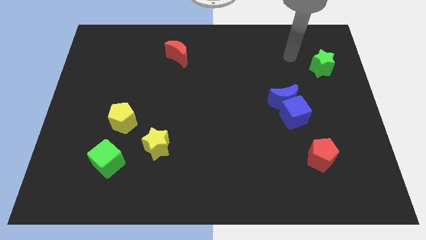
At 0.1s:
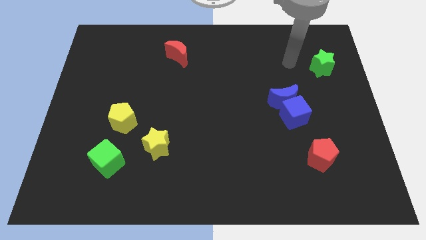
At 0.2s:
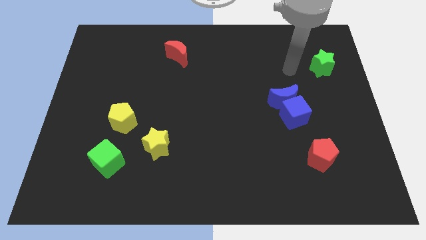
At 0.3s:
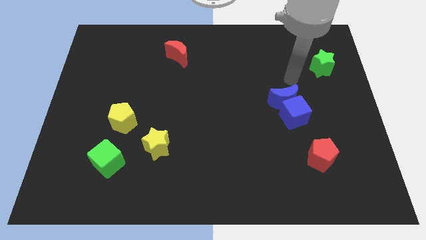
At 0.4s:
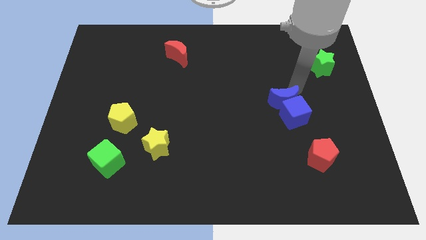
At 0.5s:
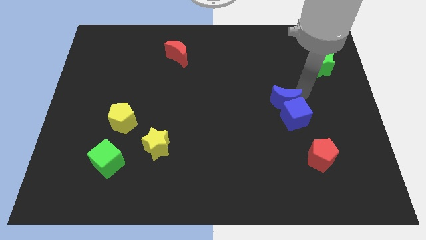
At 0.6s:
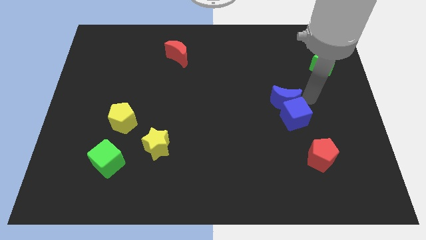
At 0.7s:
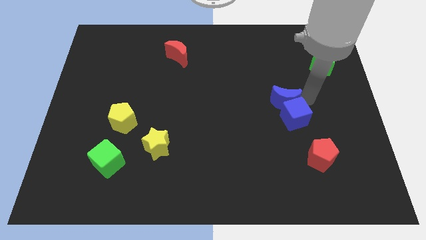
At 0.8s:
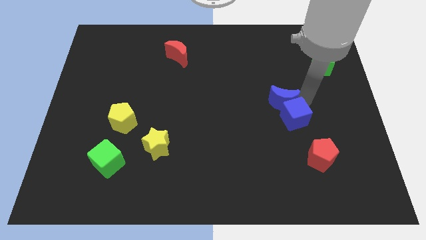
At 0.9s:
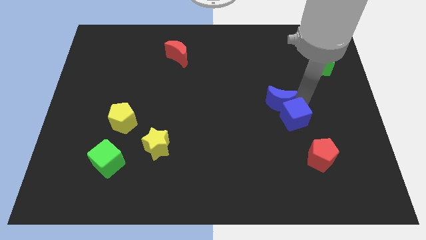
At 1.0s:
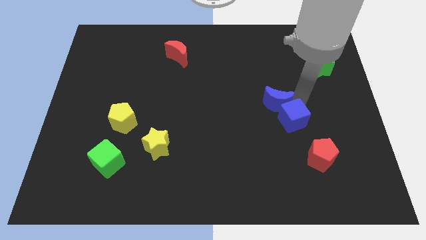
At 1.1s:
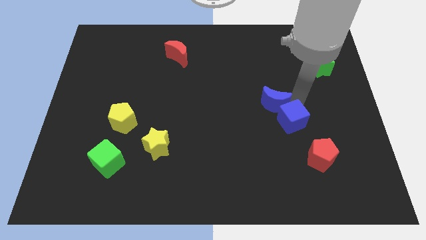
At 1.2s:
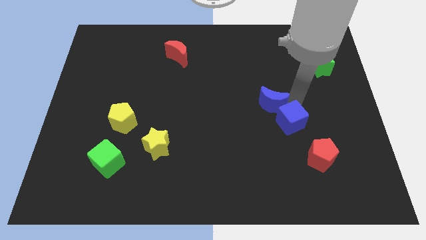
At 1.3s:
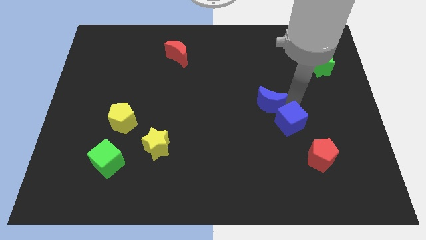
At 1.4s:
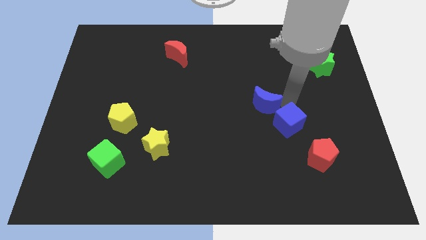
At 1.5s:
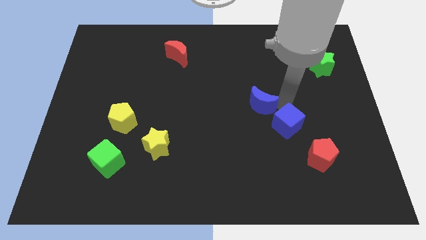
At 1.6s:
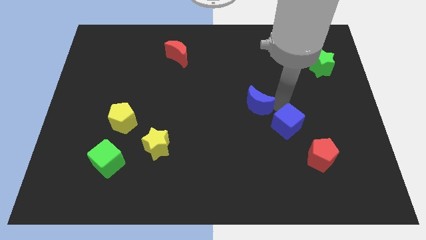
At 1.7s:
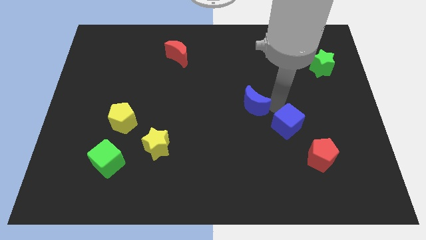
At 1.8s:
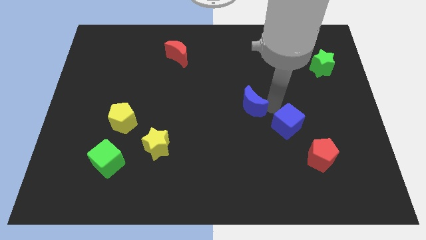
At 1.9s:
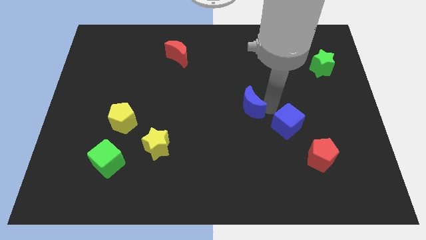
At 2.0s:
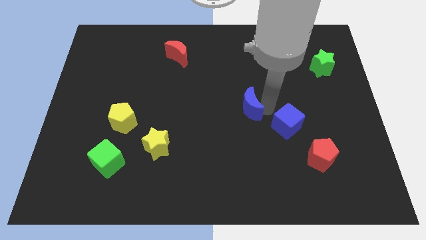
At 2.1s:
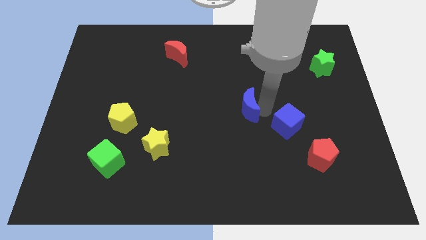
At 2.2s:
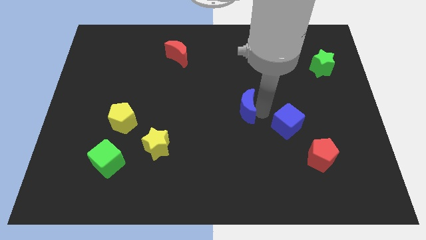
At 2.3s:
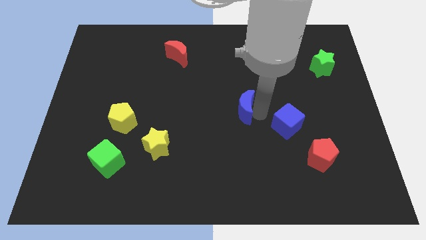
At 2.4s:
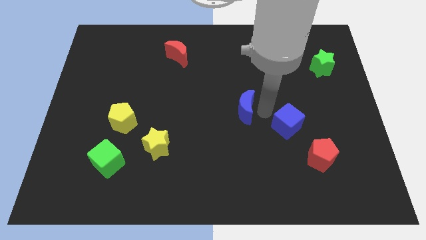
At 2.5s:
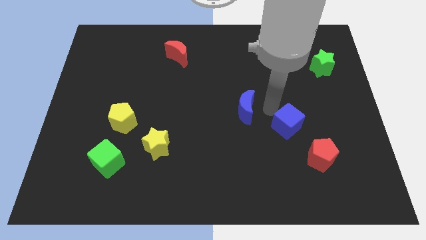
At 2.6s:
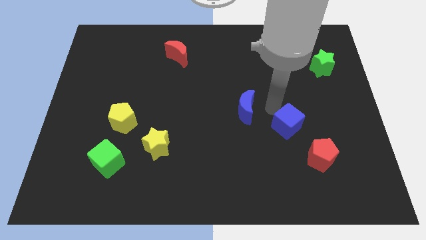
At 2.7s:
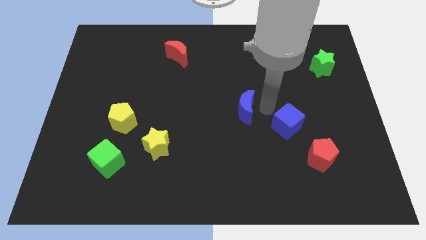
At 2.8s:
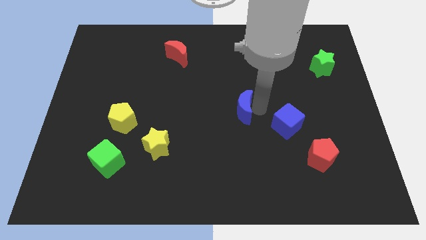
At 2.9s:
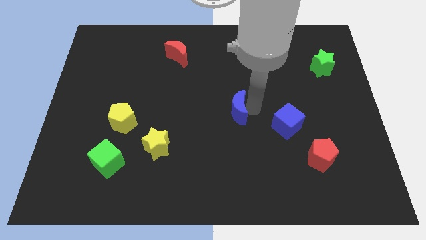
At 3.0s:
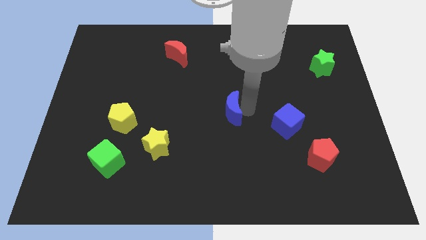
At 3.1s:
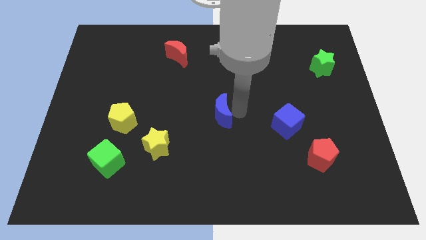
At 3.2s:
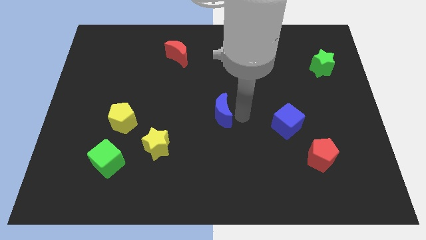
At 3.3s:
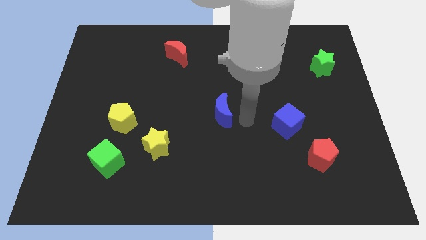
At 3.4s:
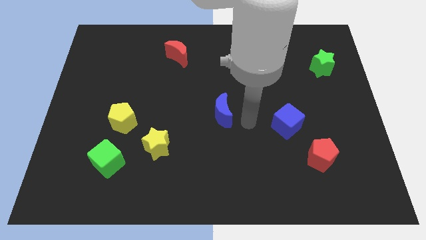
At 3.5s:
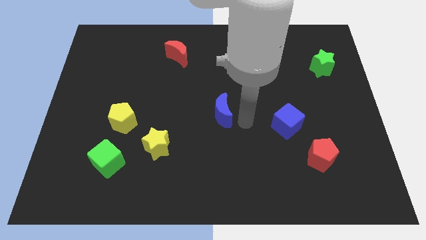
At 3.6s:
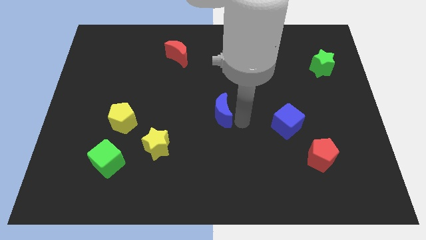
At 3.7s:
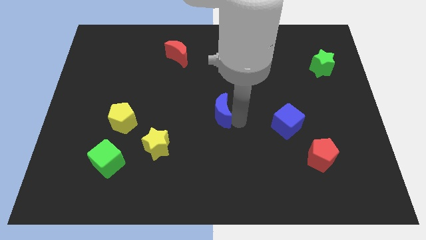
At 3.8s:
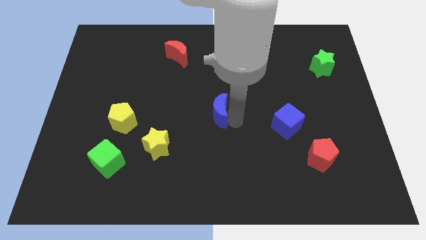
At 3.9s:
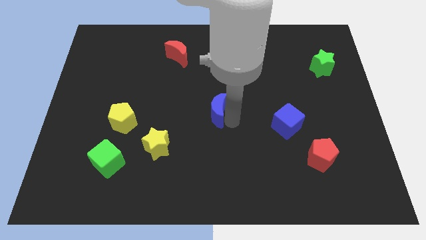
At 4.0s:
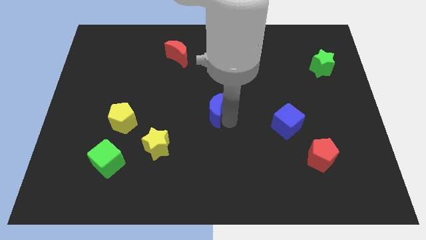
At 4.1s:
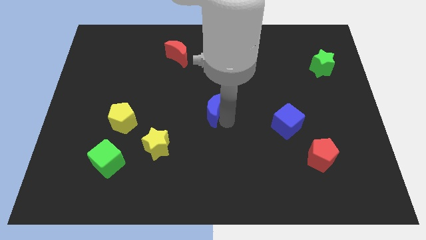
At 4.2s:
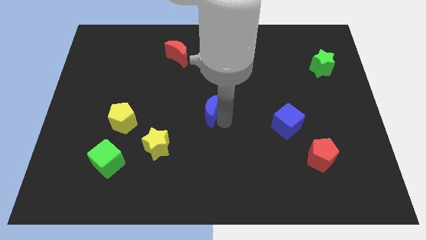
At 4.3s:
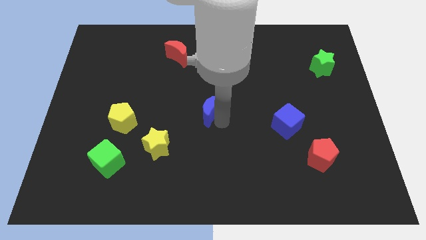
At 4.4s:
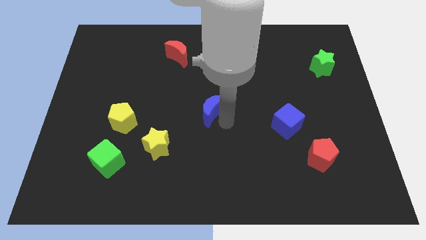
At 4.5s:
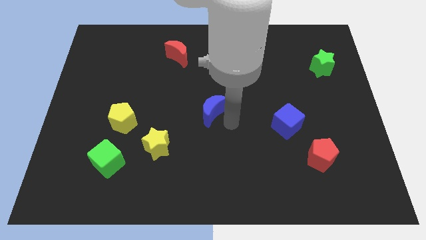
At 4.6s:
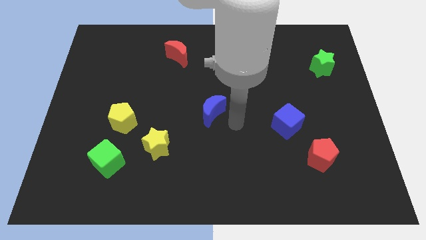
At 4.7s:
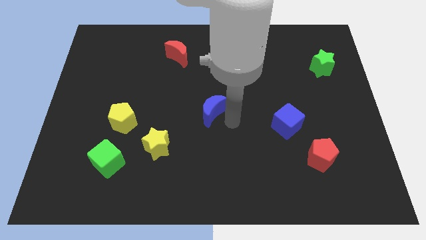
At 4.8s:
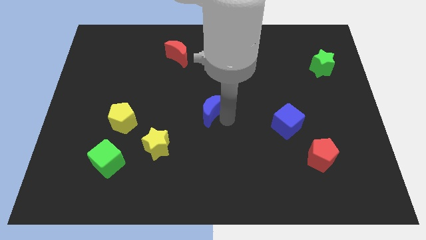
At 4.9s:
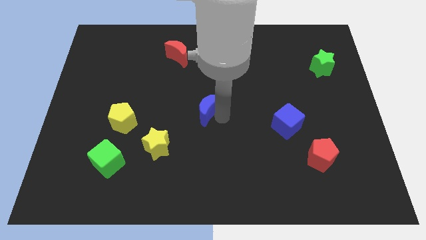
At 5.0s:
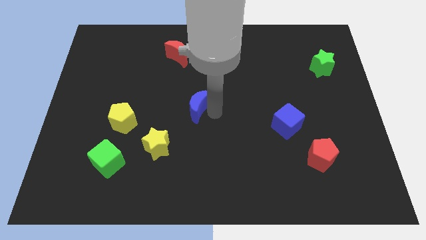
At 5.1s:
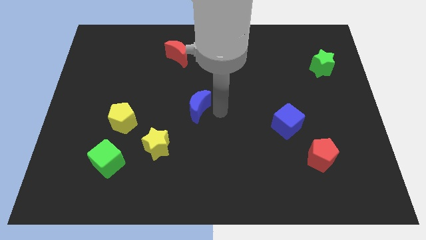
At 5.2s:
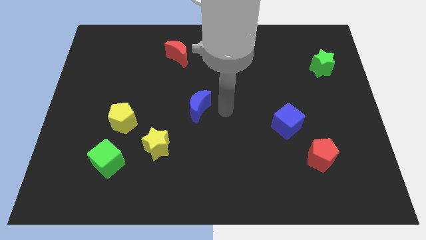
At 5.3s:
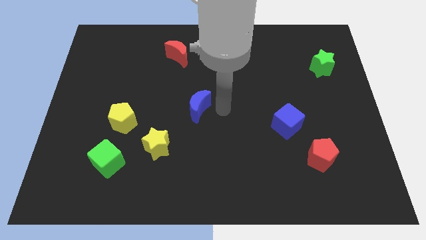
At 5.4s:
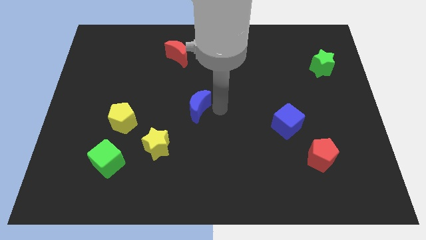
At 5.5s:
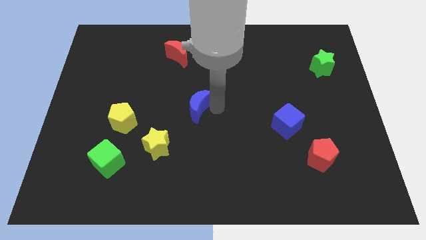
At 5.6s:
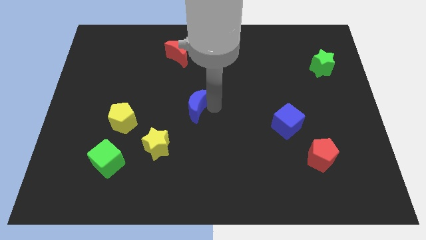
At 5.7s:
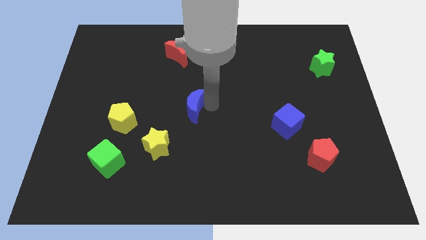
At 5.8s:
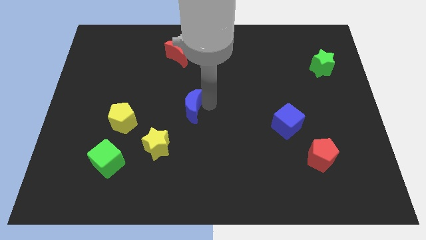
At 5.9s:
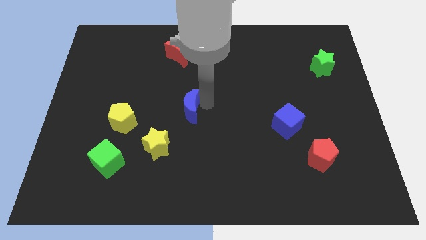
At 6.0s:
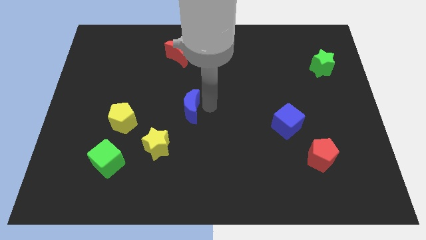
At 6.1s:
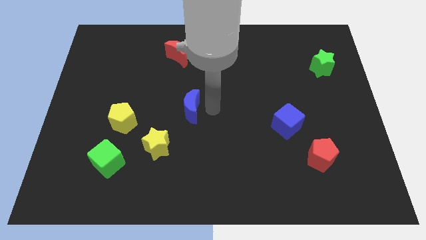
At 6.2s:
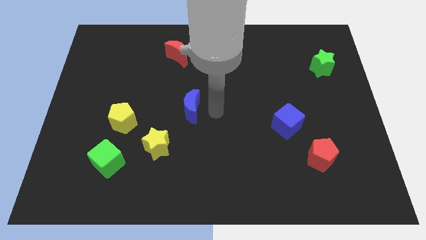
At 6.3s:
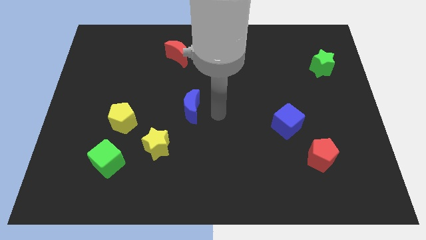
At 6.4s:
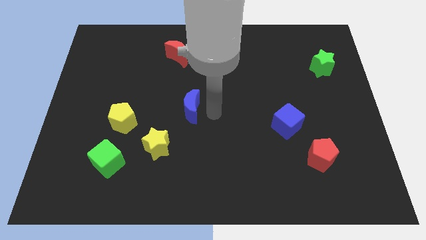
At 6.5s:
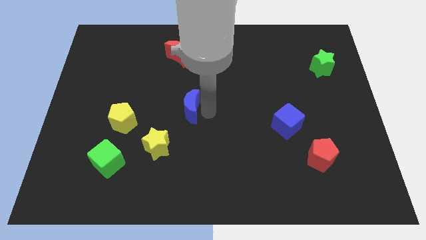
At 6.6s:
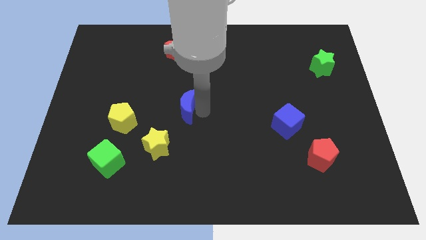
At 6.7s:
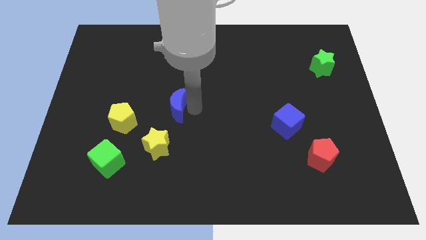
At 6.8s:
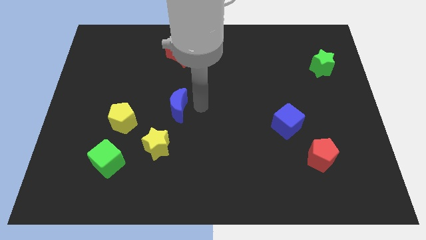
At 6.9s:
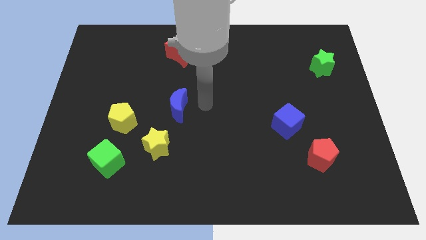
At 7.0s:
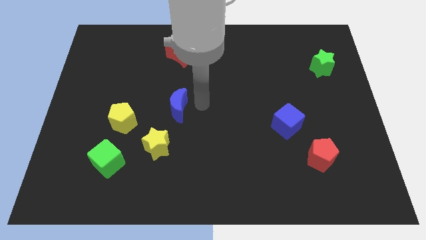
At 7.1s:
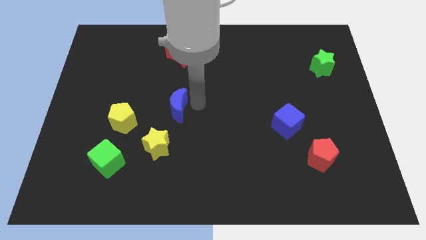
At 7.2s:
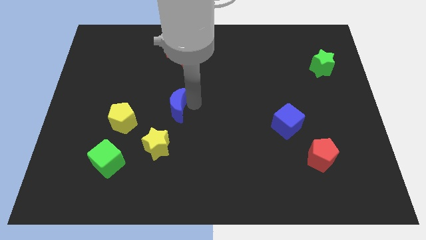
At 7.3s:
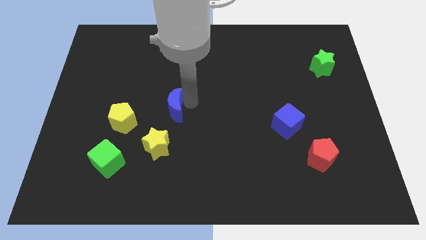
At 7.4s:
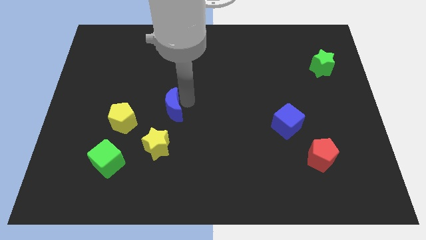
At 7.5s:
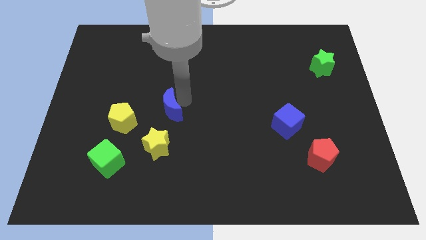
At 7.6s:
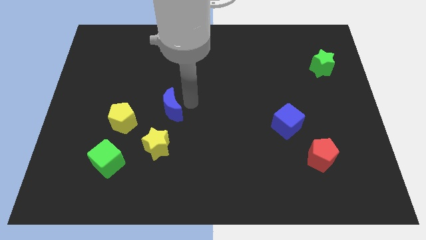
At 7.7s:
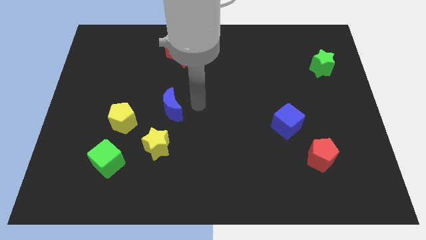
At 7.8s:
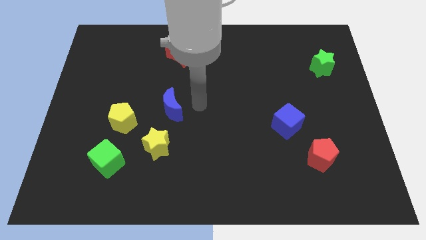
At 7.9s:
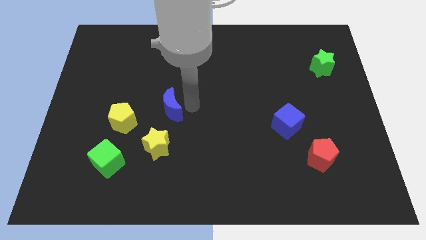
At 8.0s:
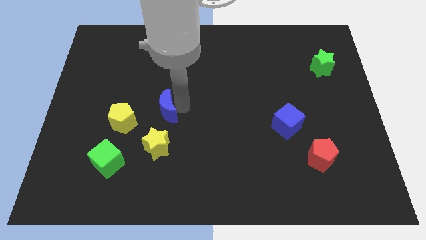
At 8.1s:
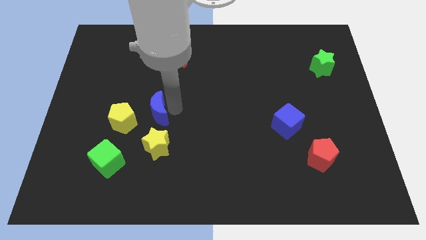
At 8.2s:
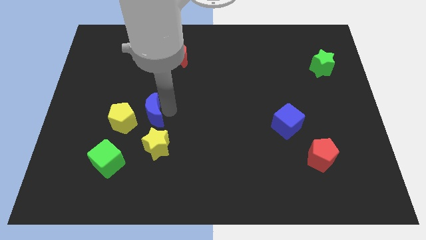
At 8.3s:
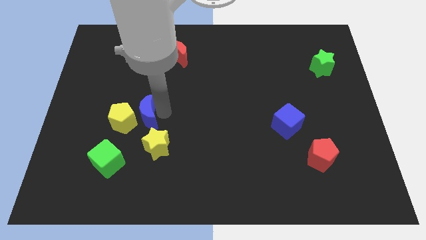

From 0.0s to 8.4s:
move the blue moon towards the yellow pentagon
